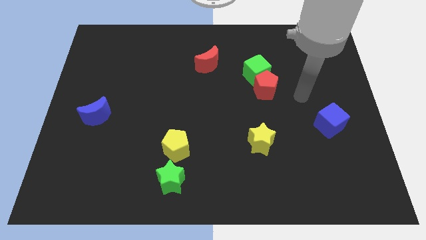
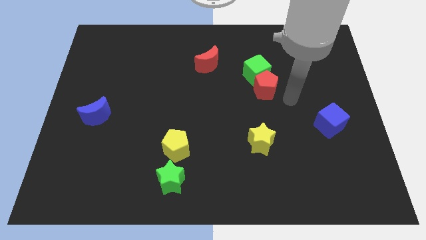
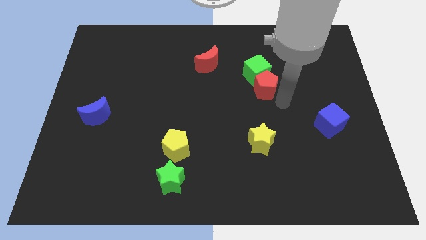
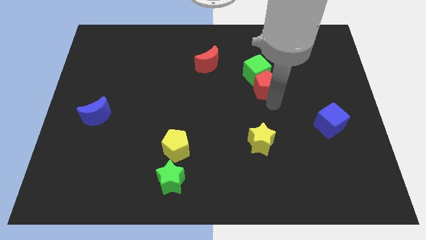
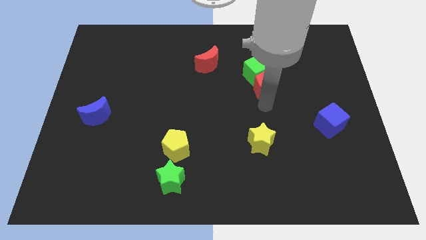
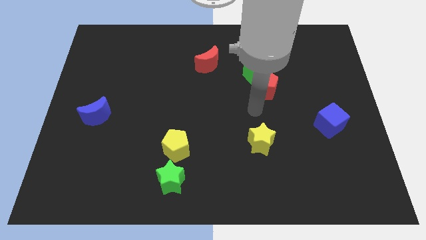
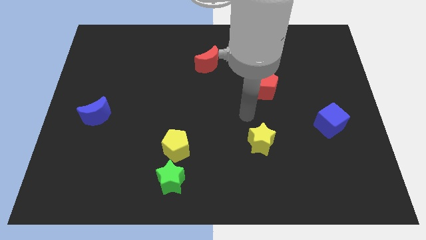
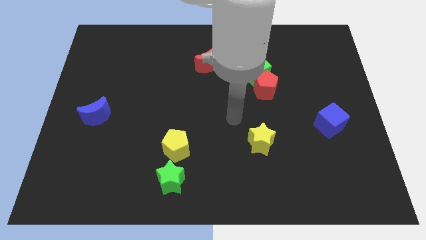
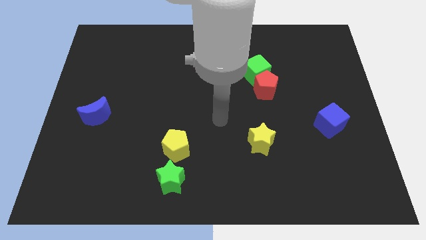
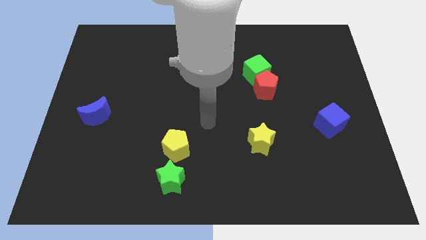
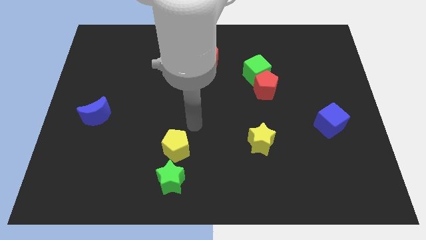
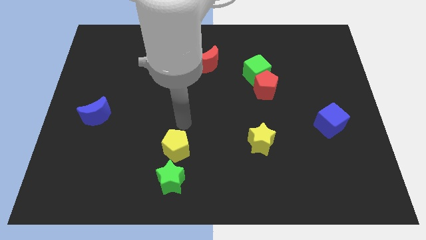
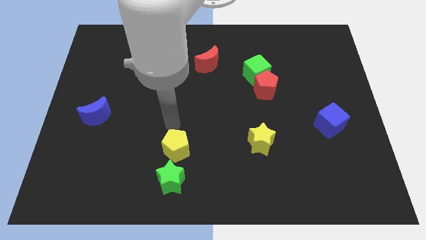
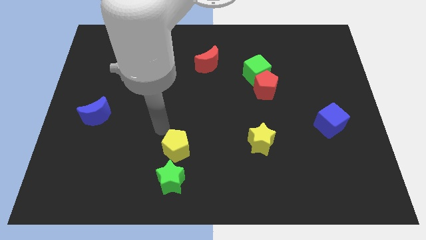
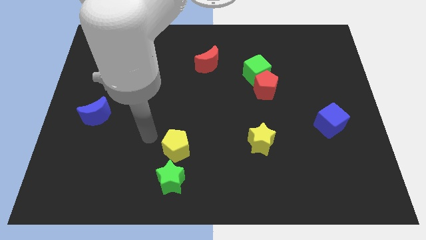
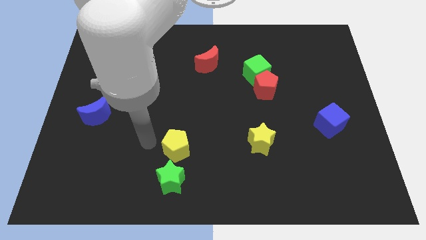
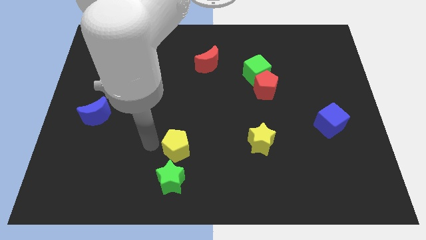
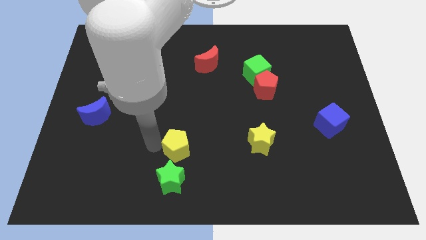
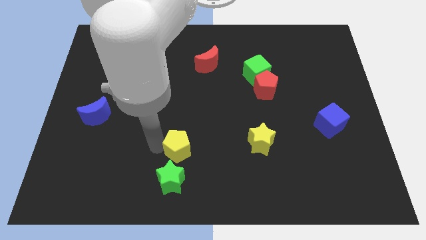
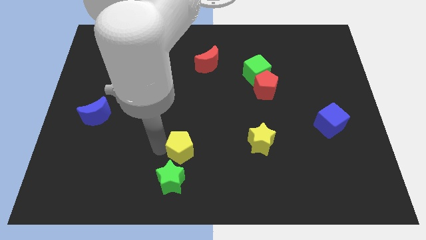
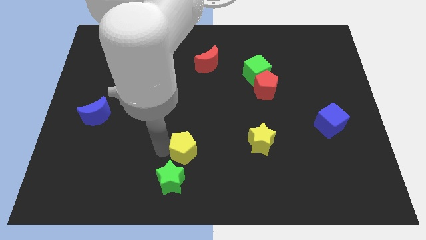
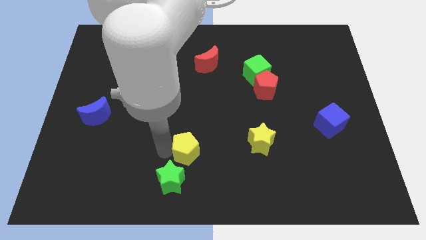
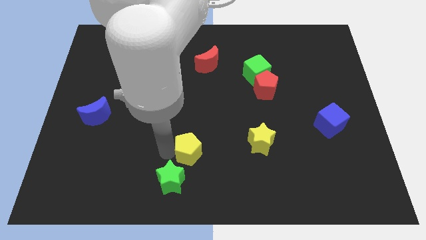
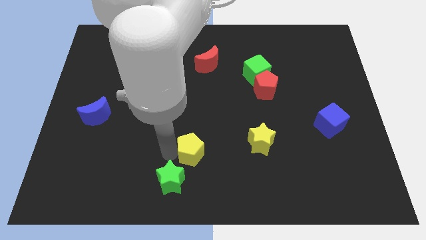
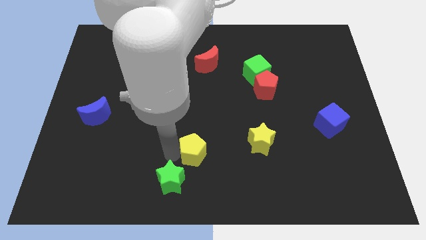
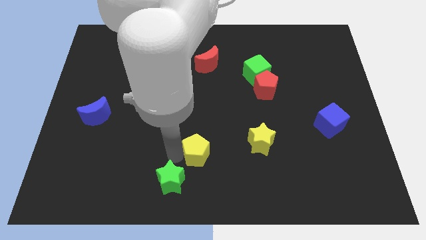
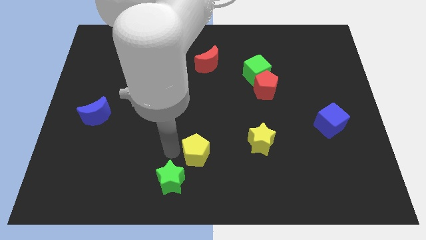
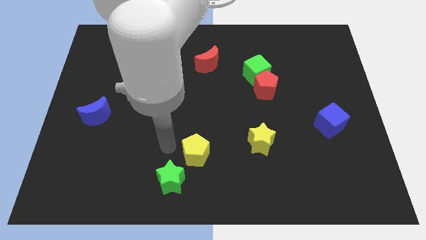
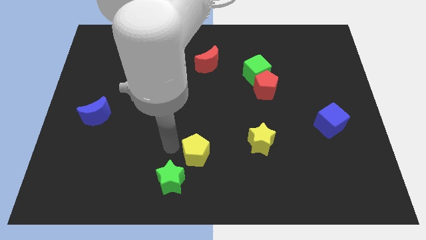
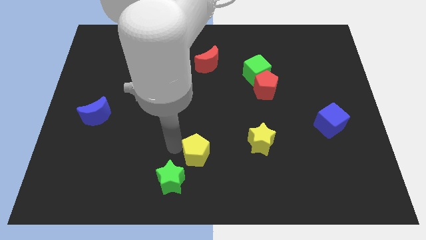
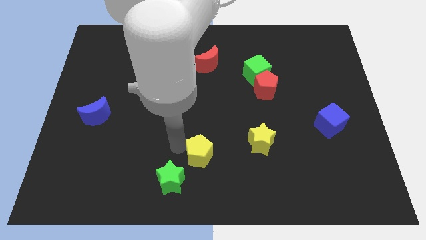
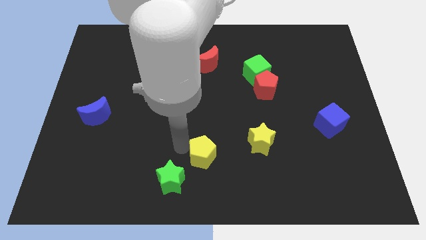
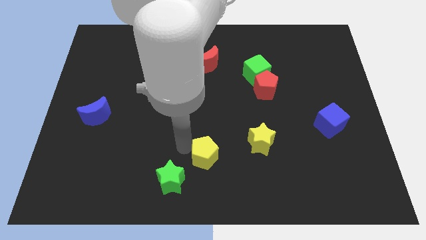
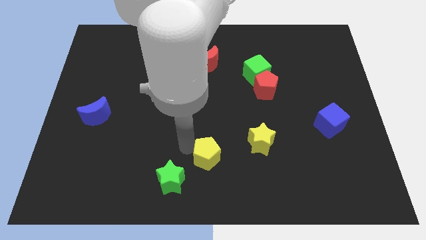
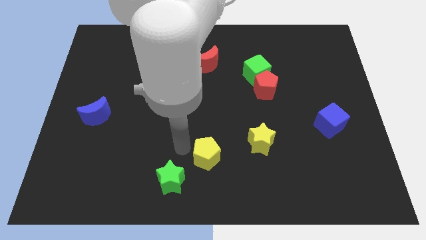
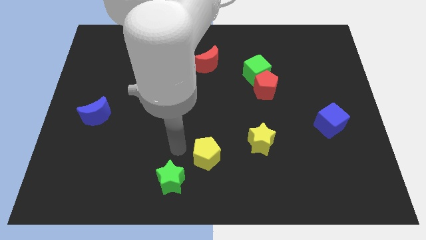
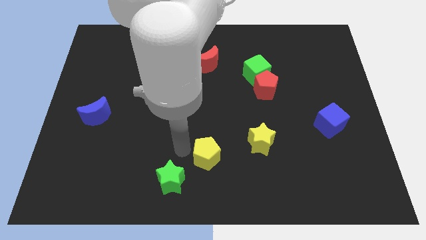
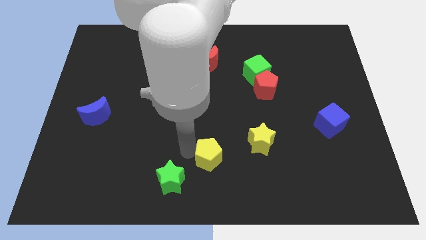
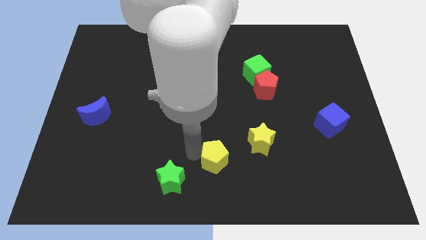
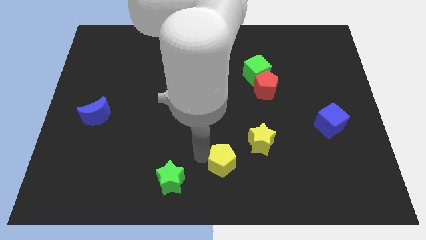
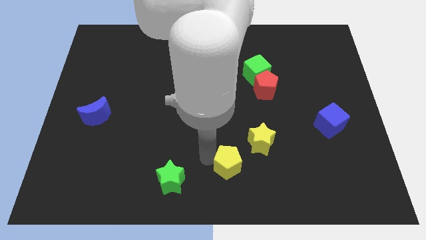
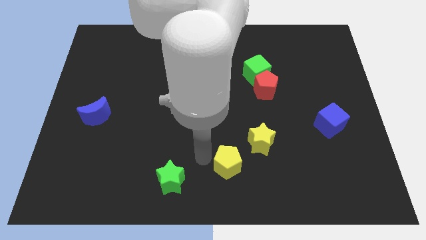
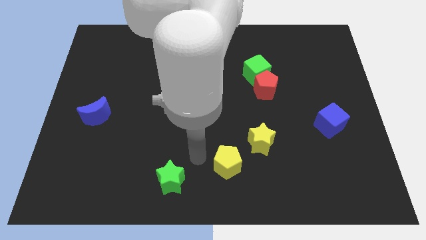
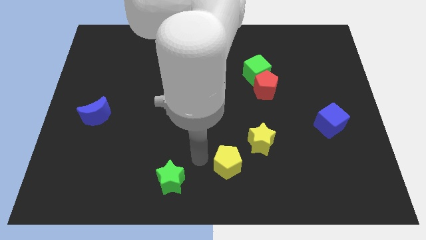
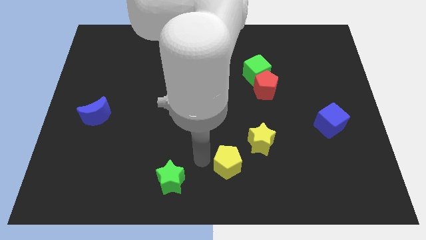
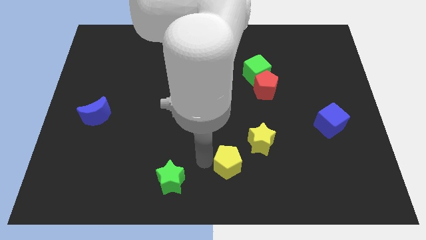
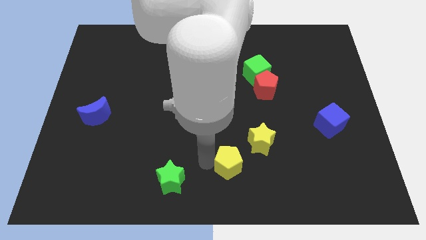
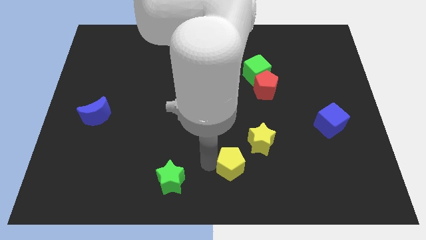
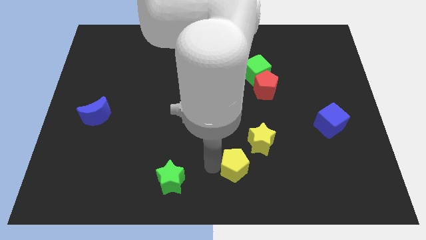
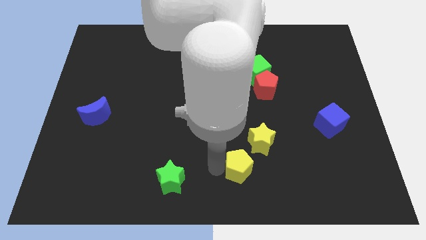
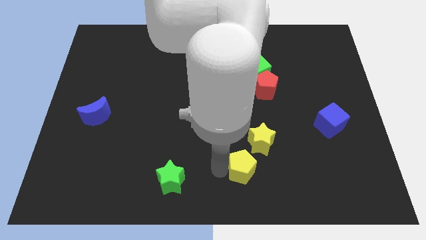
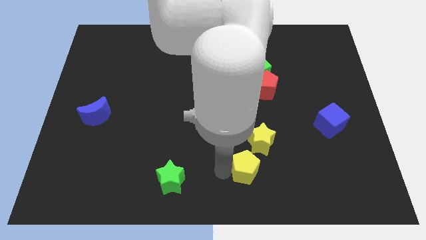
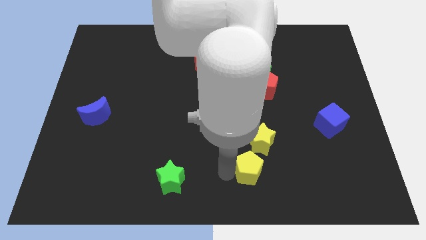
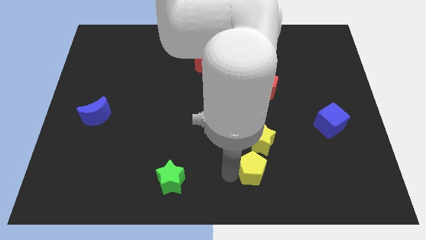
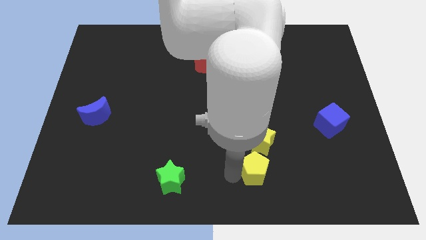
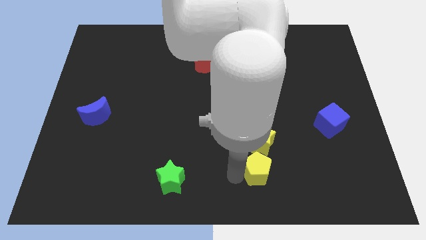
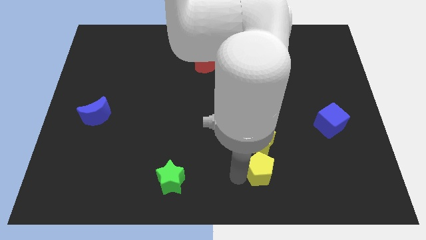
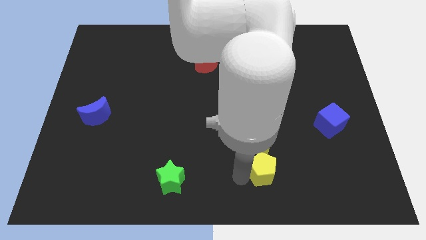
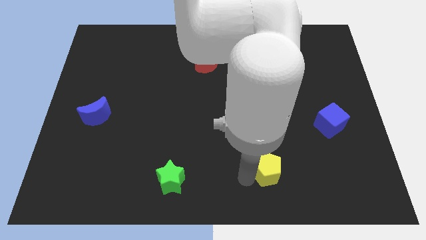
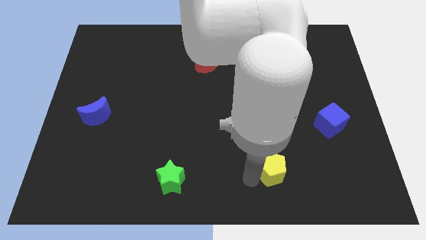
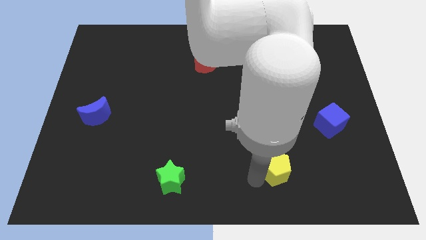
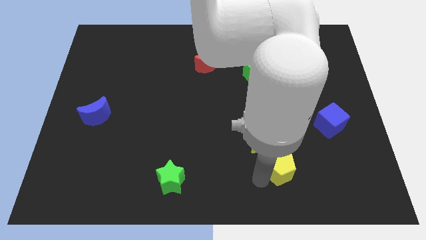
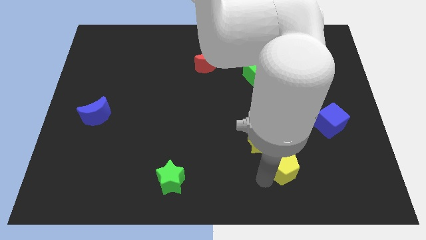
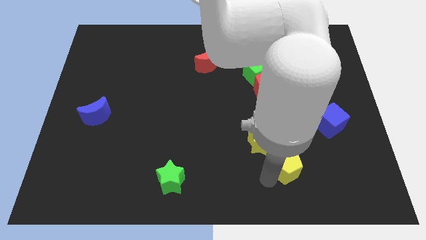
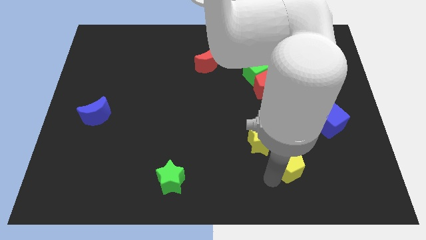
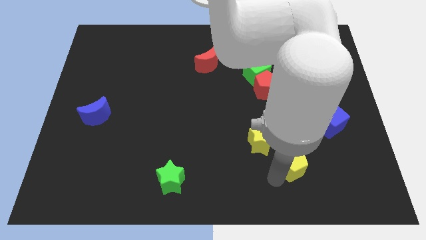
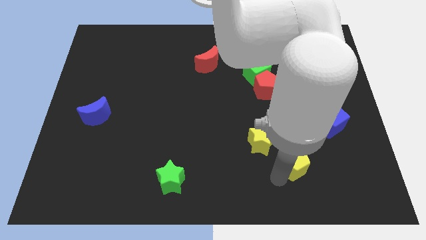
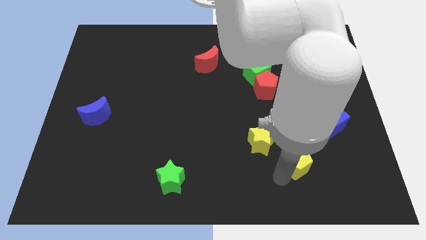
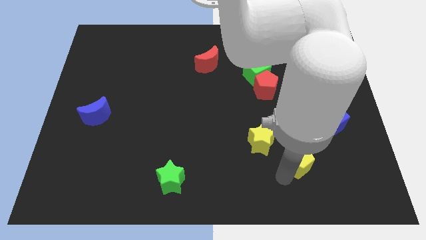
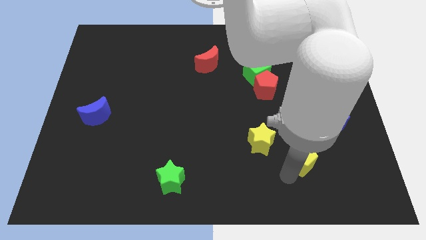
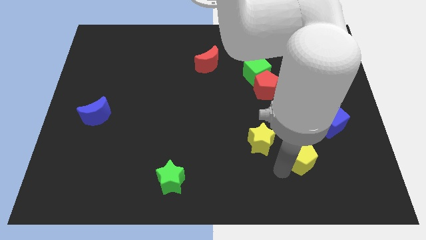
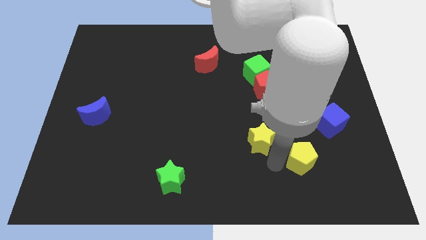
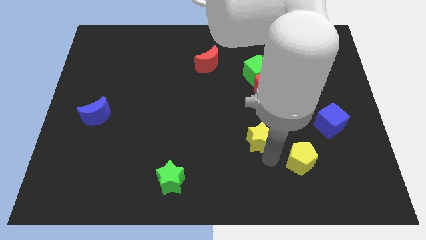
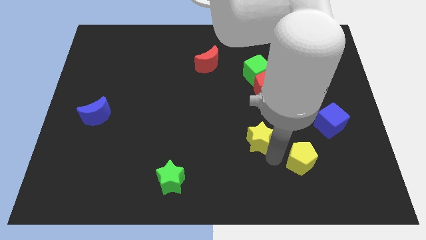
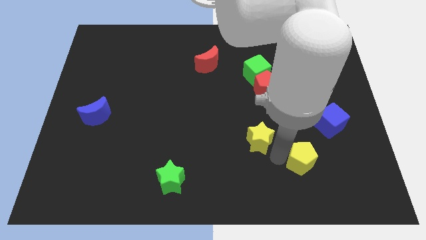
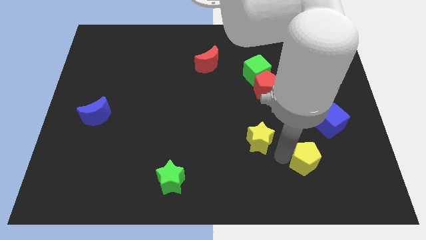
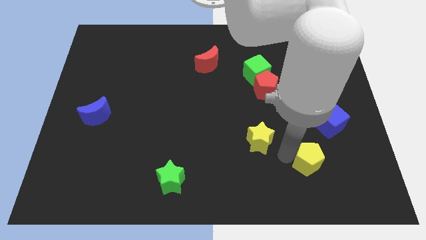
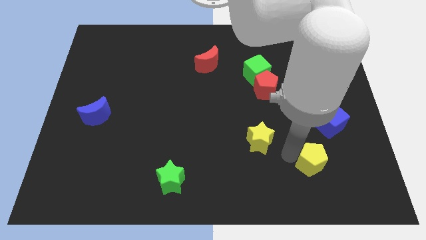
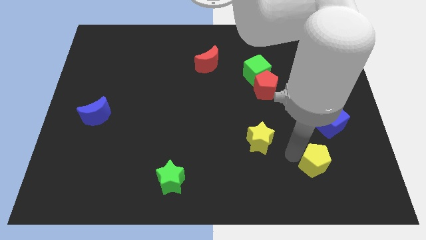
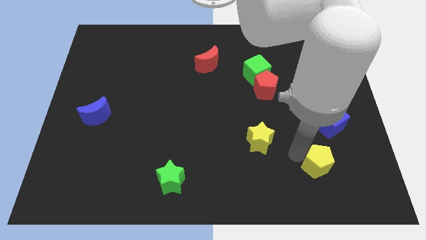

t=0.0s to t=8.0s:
push the yellow pentagon below the blue cube
